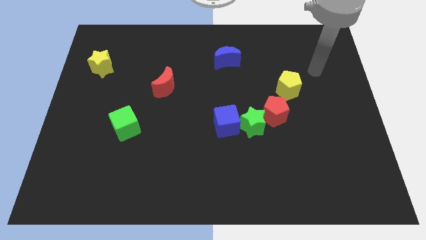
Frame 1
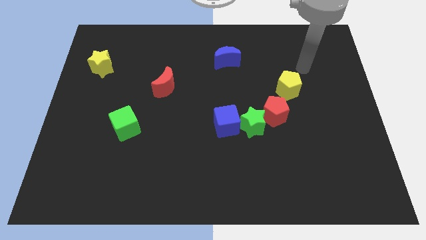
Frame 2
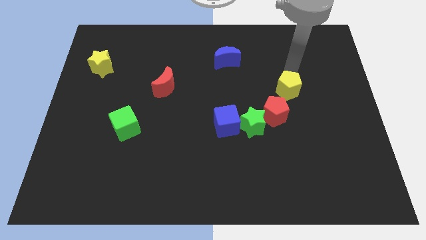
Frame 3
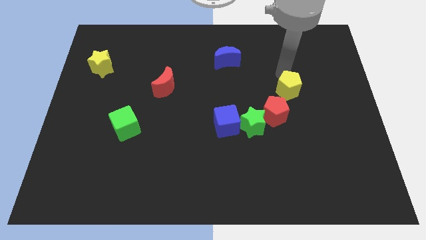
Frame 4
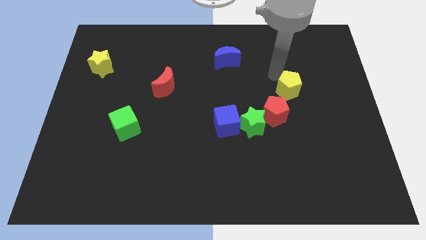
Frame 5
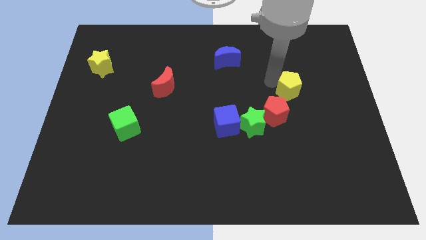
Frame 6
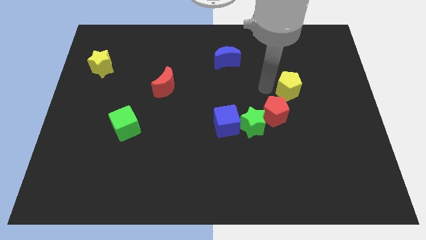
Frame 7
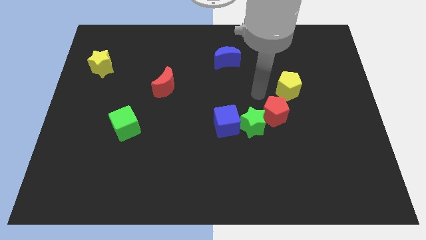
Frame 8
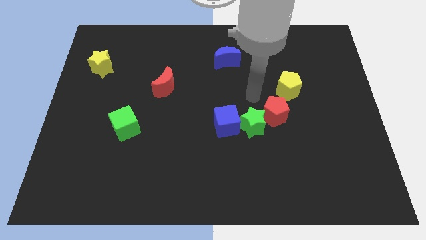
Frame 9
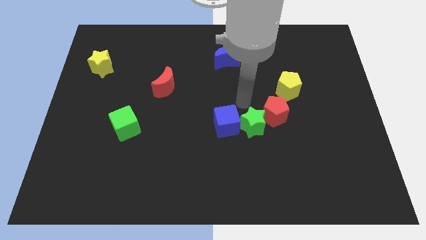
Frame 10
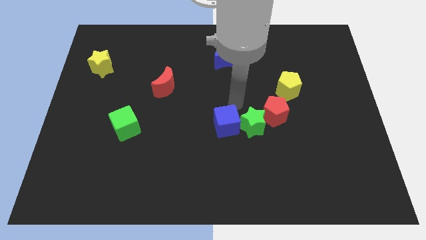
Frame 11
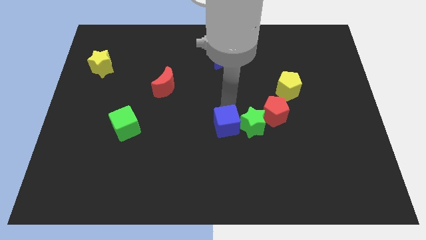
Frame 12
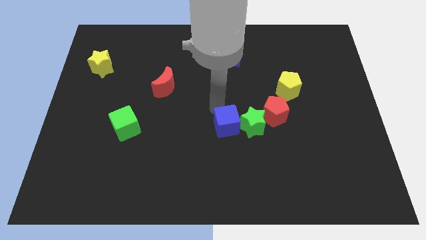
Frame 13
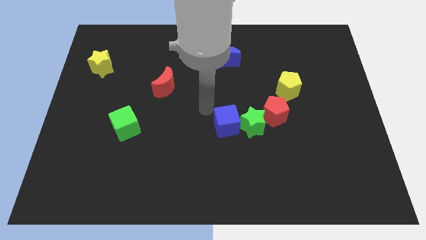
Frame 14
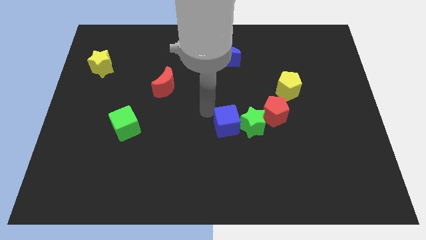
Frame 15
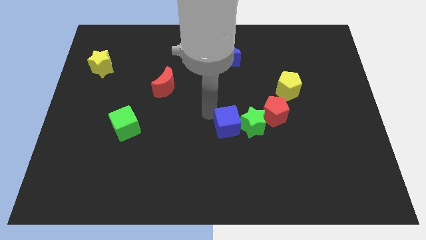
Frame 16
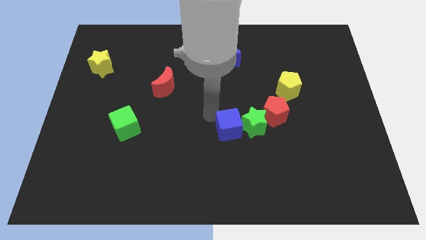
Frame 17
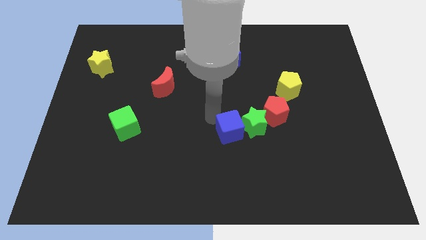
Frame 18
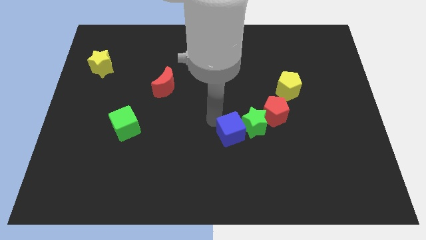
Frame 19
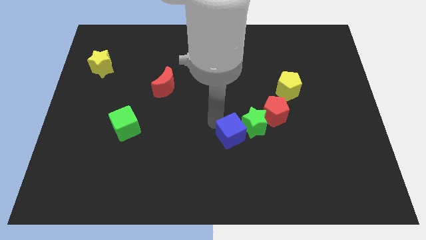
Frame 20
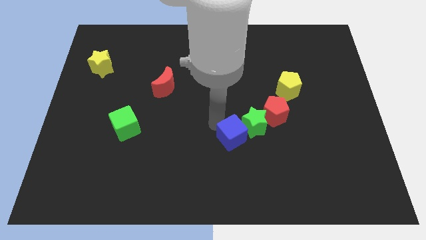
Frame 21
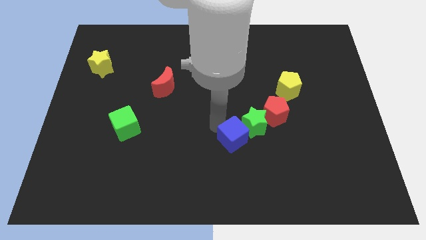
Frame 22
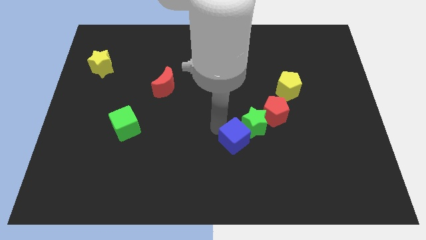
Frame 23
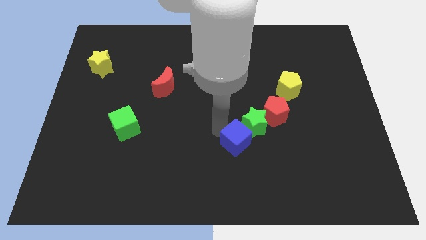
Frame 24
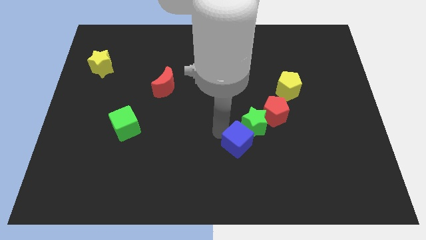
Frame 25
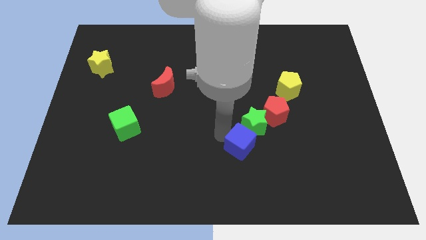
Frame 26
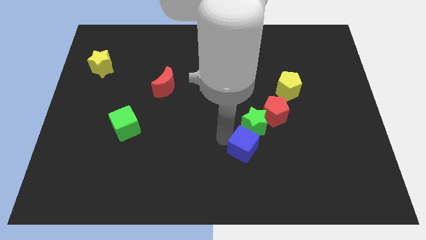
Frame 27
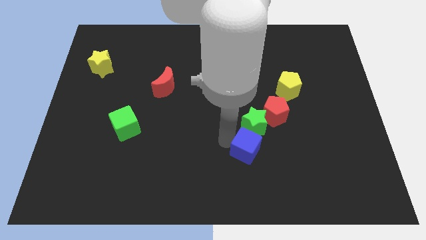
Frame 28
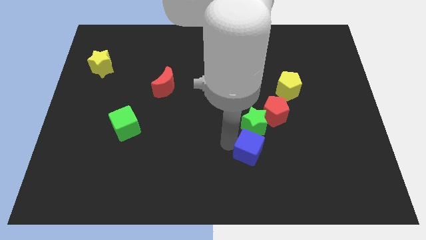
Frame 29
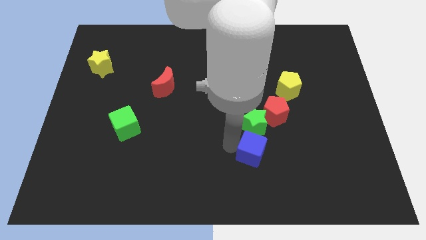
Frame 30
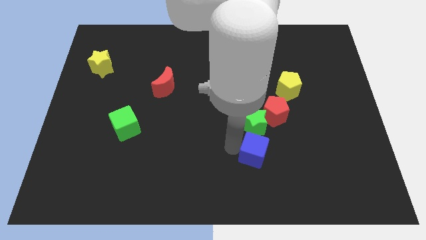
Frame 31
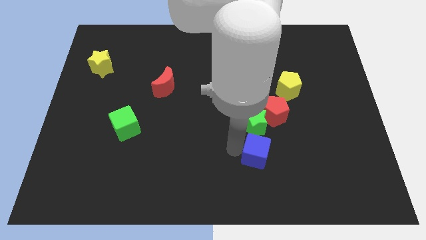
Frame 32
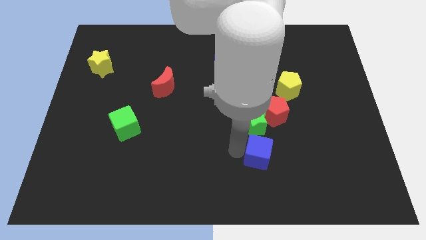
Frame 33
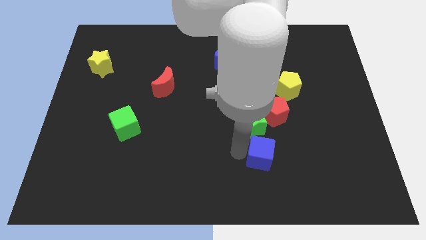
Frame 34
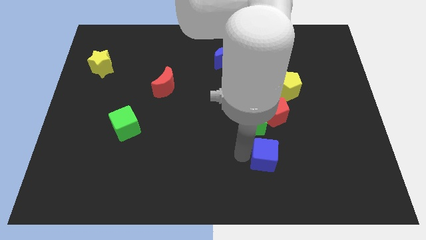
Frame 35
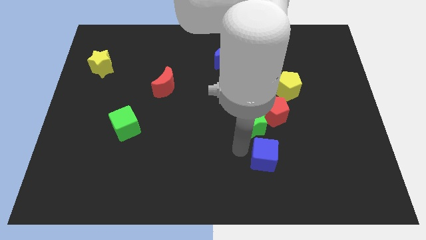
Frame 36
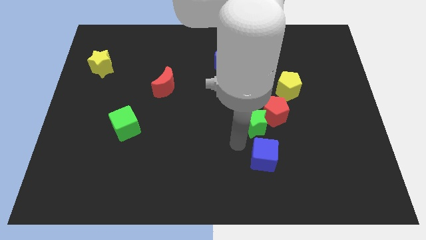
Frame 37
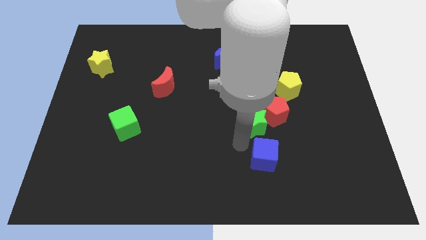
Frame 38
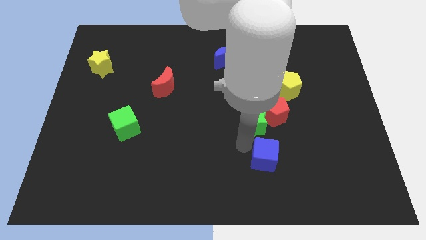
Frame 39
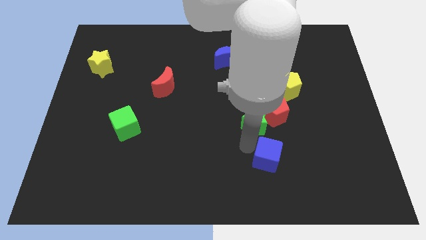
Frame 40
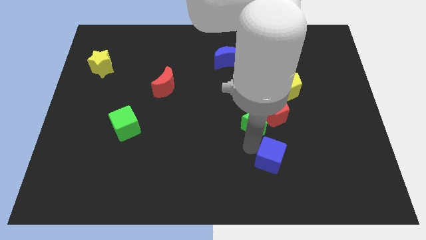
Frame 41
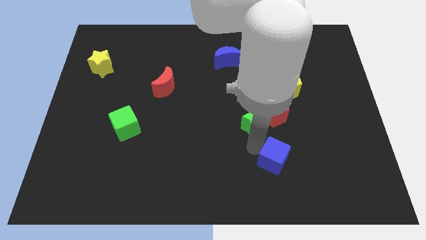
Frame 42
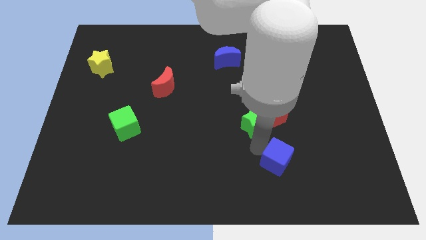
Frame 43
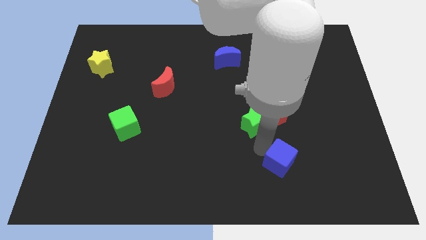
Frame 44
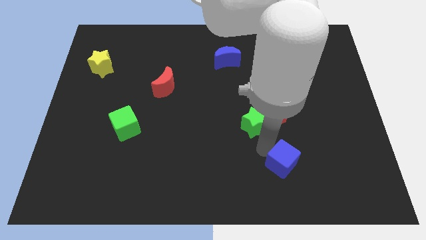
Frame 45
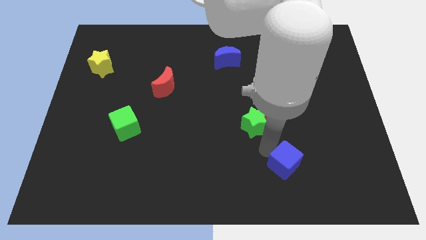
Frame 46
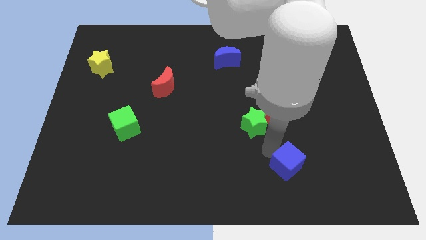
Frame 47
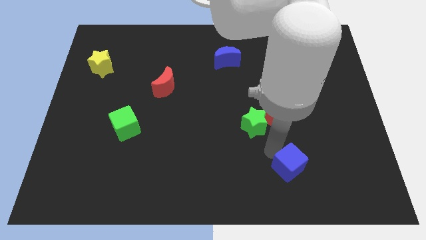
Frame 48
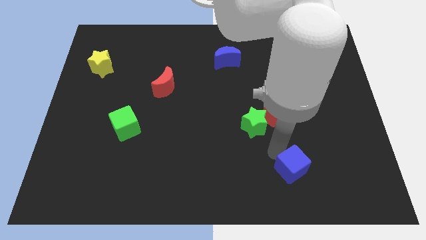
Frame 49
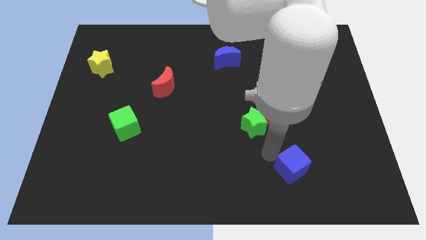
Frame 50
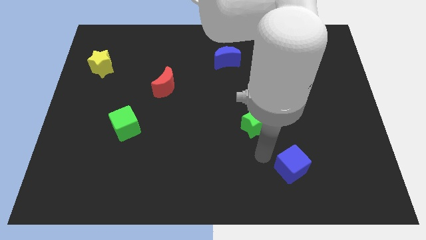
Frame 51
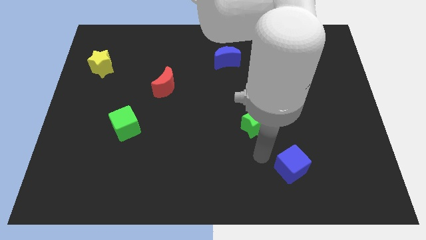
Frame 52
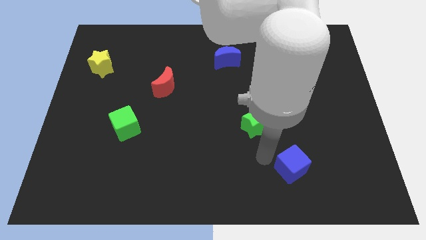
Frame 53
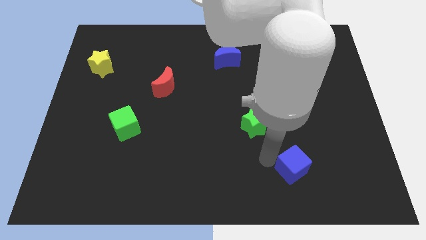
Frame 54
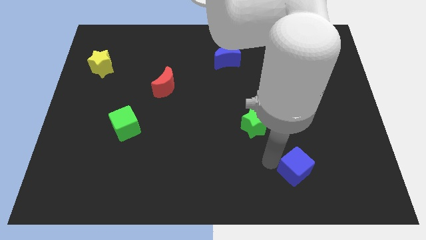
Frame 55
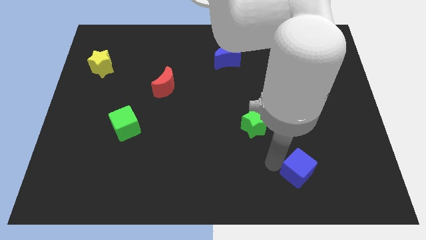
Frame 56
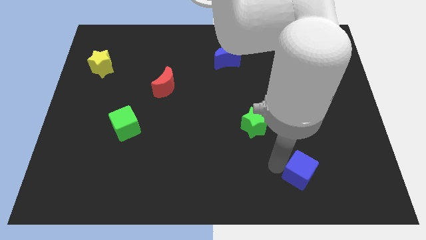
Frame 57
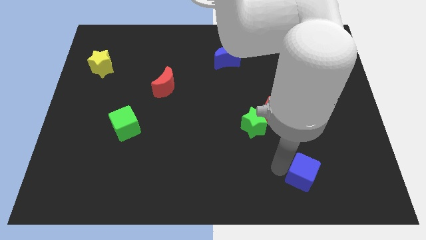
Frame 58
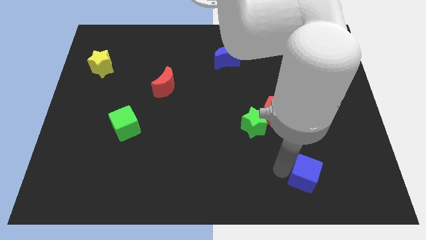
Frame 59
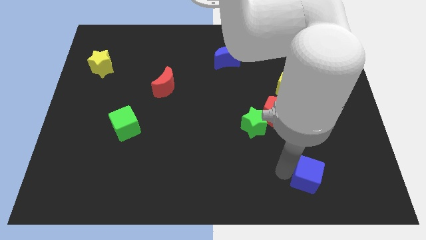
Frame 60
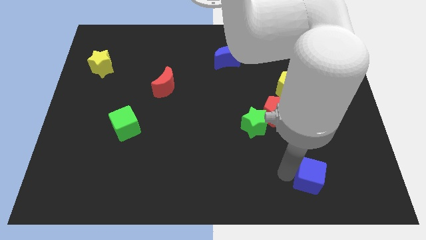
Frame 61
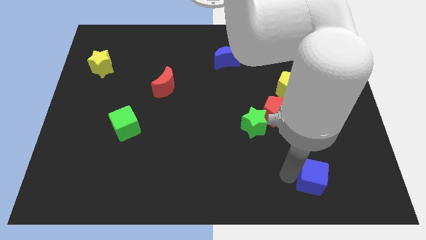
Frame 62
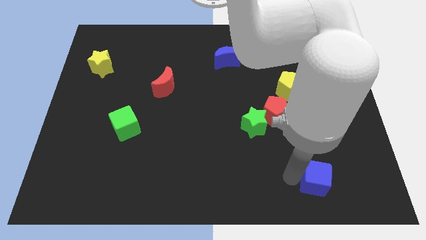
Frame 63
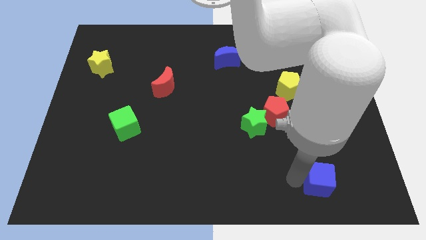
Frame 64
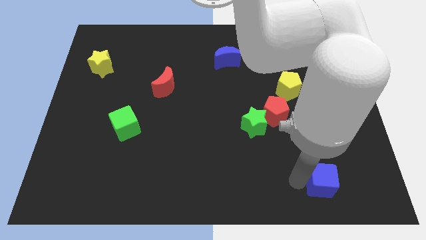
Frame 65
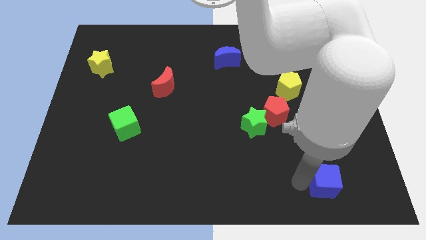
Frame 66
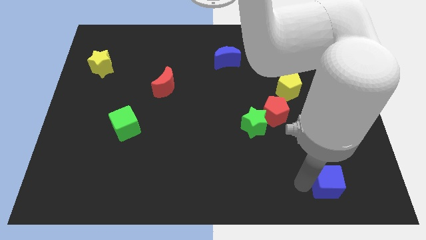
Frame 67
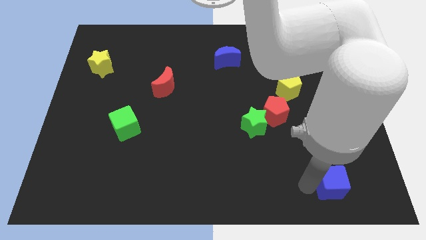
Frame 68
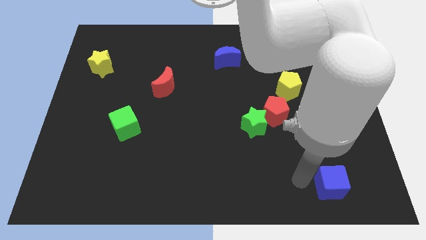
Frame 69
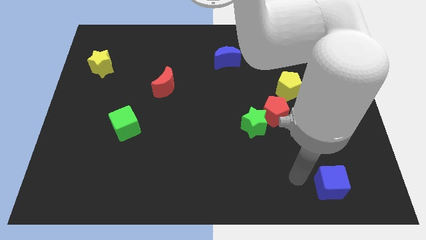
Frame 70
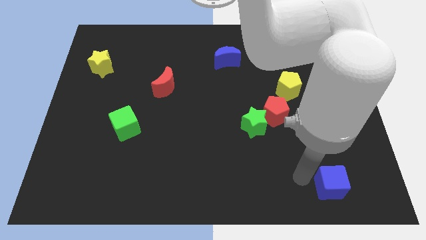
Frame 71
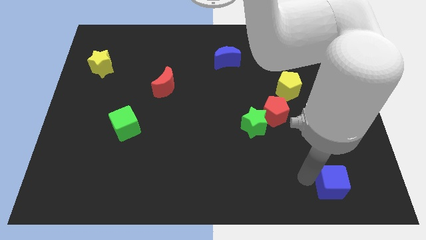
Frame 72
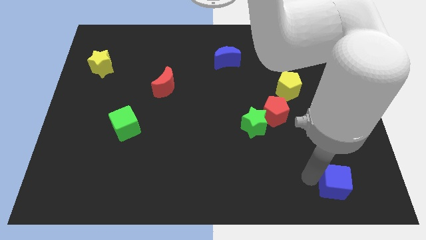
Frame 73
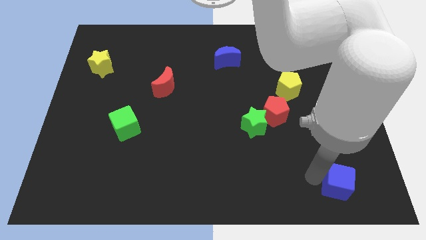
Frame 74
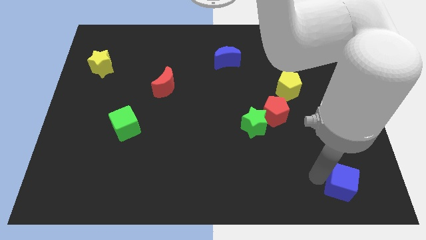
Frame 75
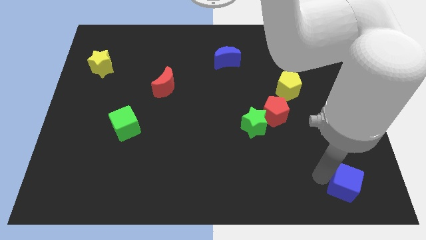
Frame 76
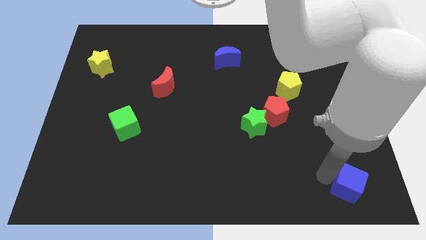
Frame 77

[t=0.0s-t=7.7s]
move the blue cube to the bottom right corner
